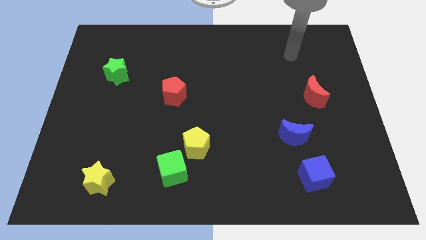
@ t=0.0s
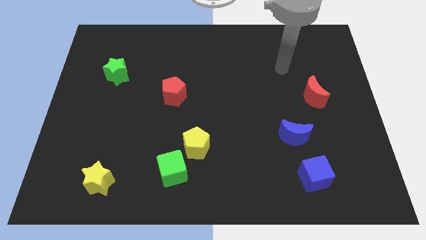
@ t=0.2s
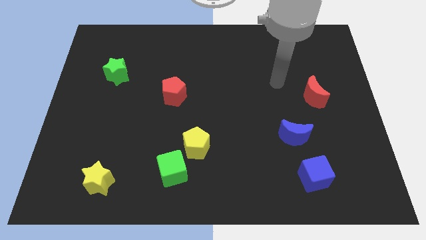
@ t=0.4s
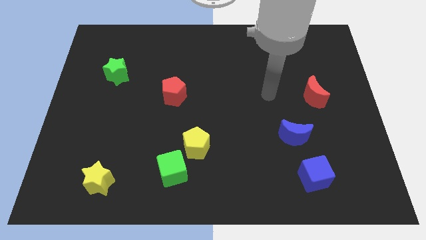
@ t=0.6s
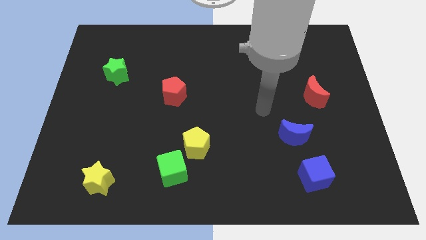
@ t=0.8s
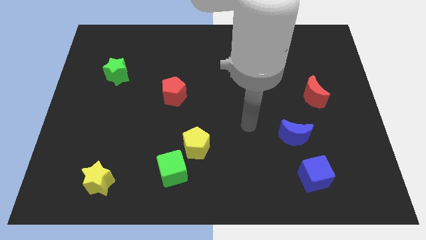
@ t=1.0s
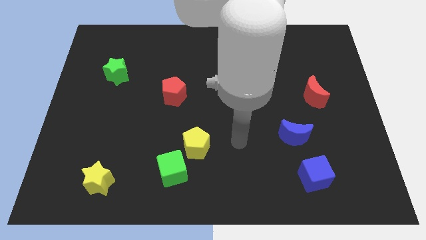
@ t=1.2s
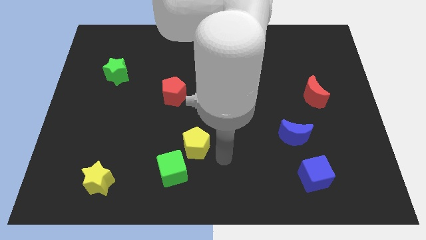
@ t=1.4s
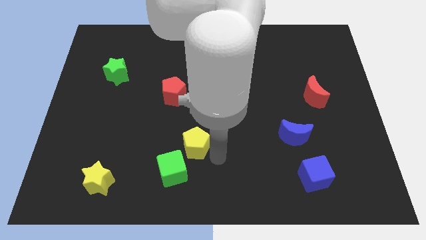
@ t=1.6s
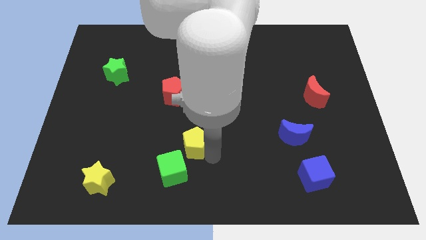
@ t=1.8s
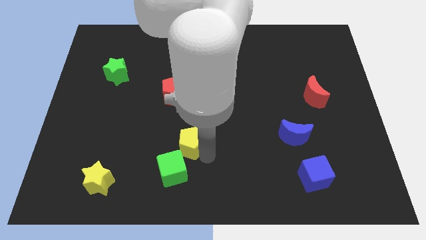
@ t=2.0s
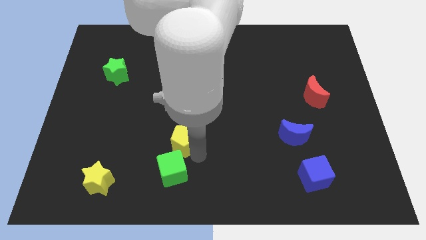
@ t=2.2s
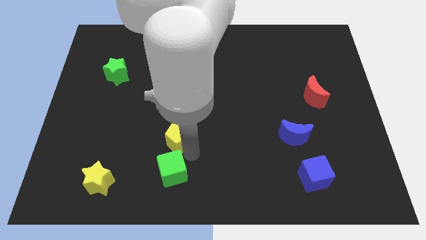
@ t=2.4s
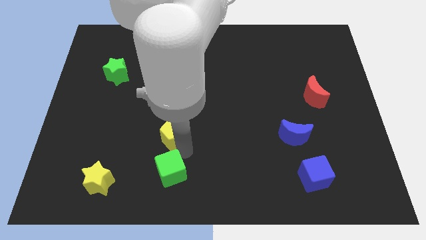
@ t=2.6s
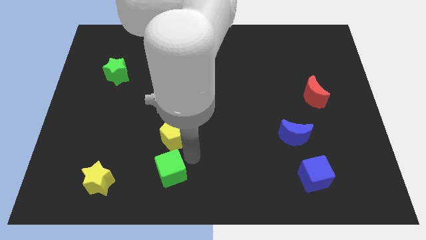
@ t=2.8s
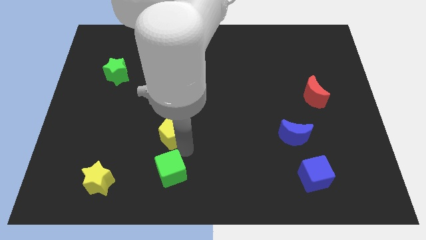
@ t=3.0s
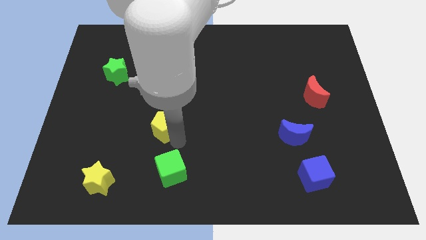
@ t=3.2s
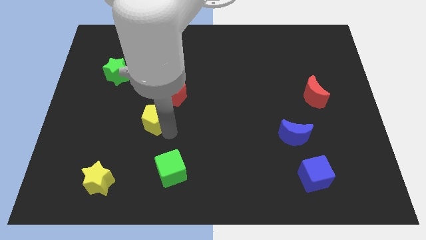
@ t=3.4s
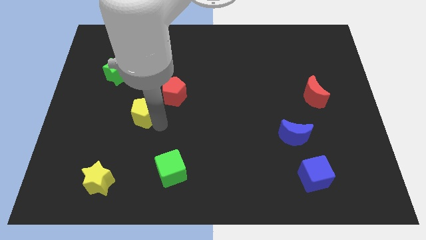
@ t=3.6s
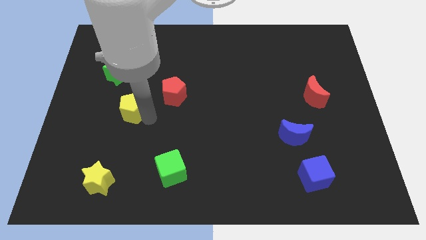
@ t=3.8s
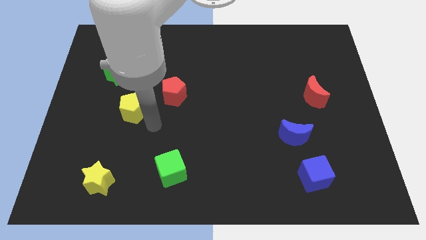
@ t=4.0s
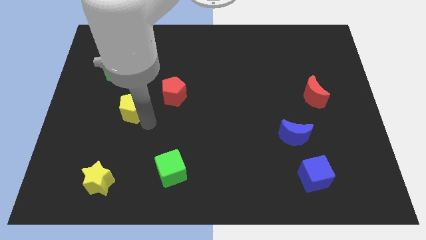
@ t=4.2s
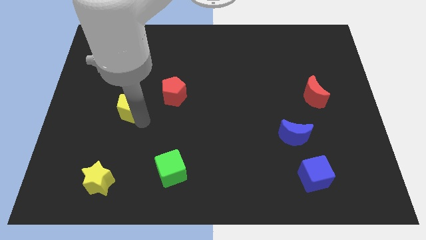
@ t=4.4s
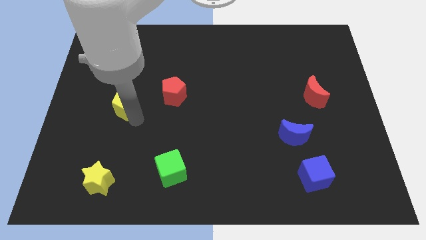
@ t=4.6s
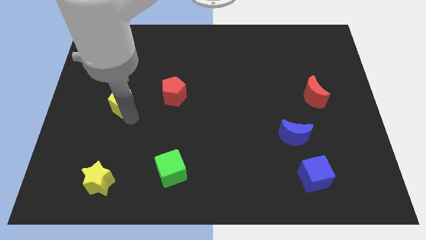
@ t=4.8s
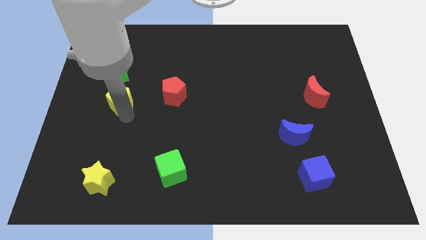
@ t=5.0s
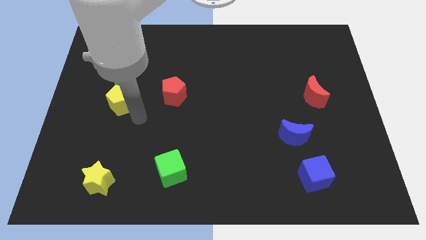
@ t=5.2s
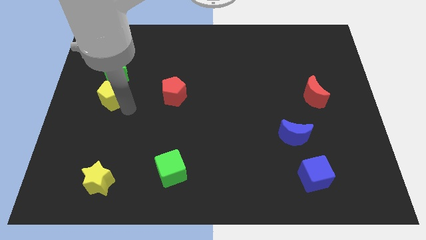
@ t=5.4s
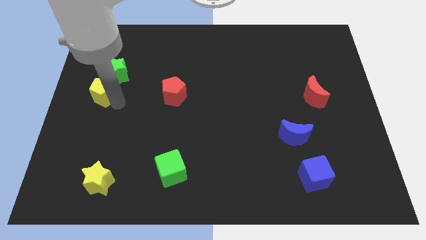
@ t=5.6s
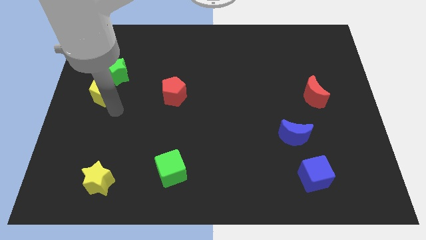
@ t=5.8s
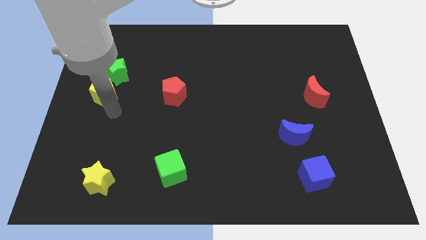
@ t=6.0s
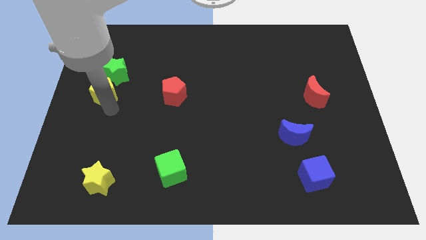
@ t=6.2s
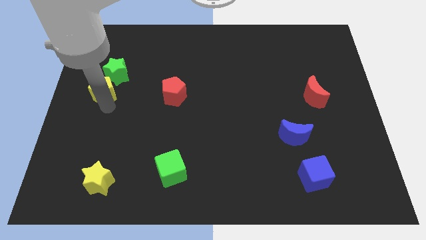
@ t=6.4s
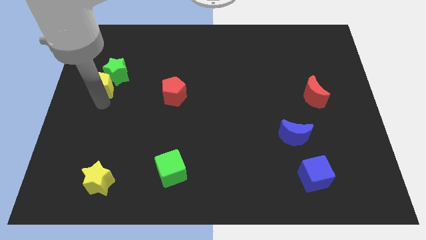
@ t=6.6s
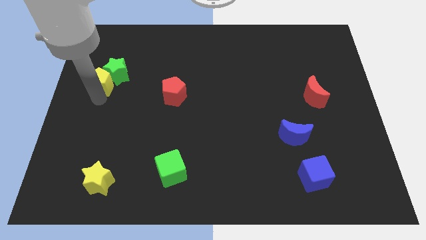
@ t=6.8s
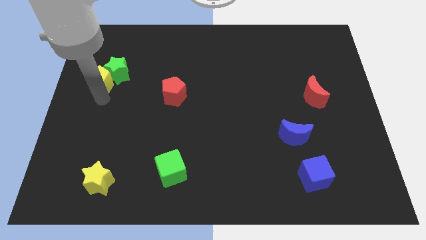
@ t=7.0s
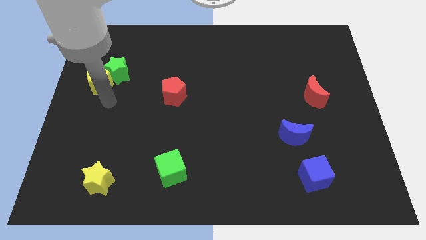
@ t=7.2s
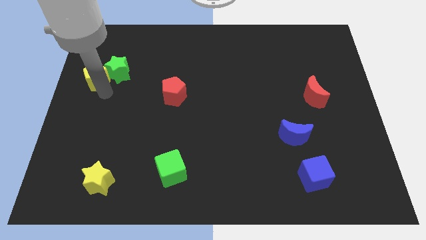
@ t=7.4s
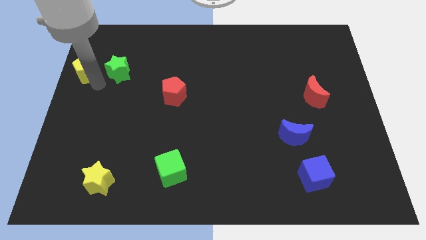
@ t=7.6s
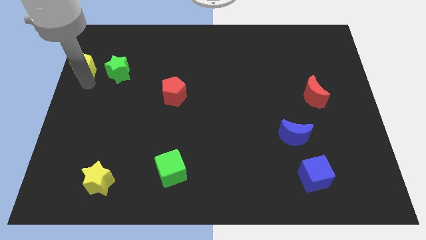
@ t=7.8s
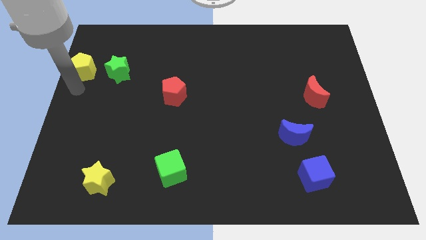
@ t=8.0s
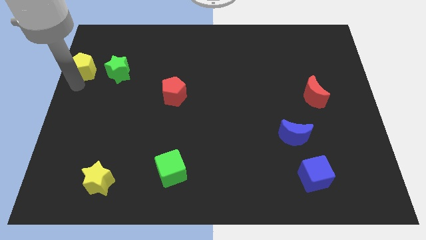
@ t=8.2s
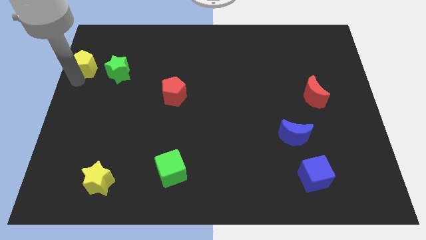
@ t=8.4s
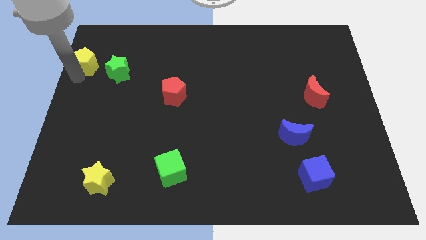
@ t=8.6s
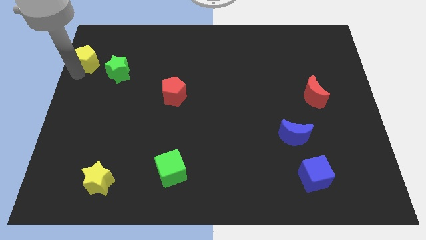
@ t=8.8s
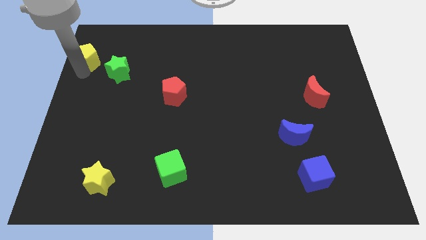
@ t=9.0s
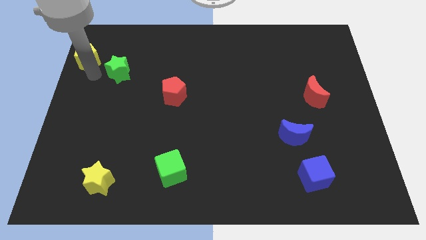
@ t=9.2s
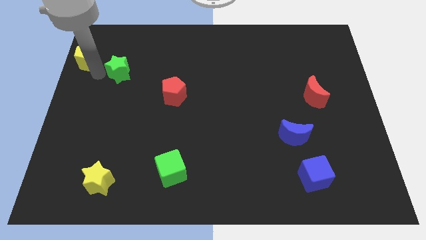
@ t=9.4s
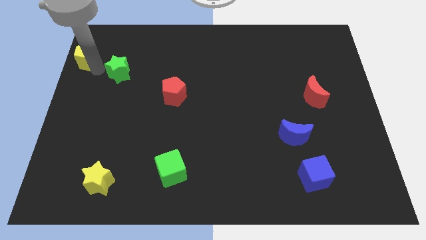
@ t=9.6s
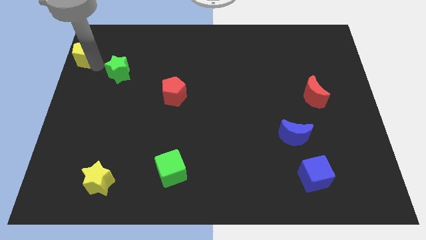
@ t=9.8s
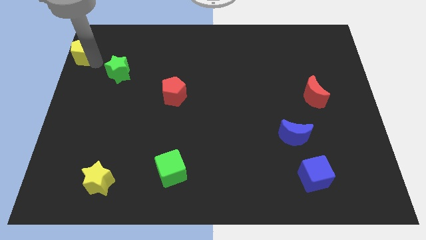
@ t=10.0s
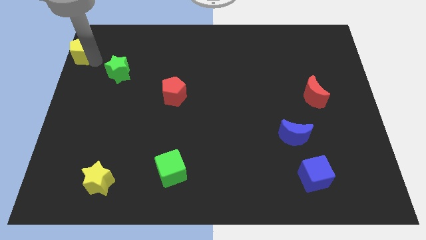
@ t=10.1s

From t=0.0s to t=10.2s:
put the yellow pentagon to the top left

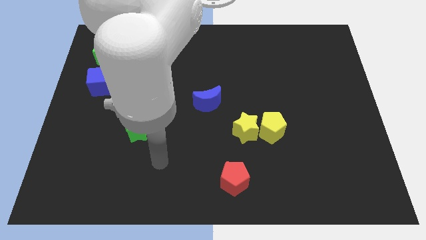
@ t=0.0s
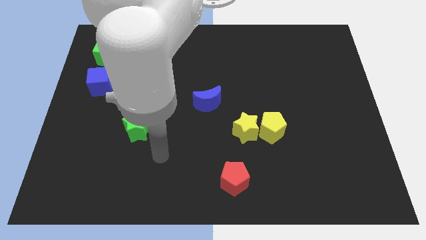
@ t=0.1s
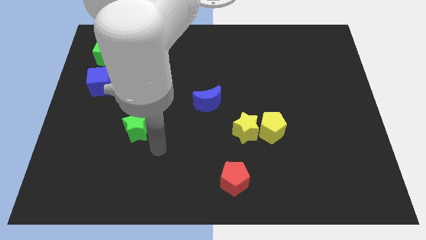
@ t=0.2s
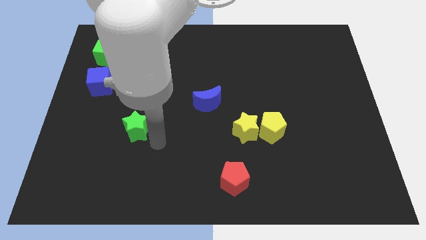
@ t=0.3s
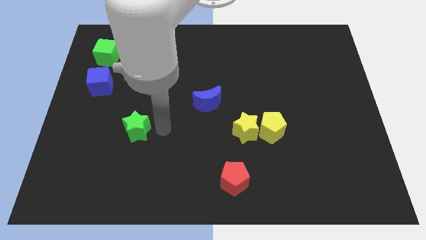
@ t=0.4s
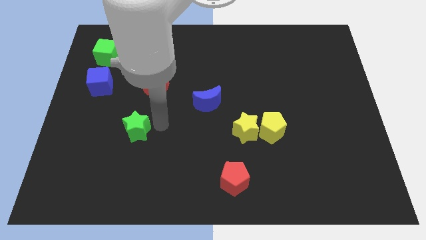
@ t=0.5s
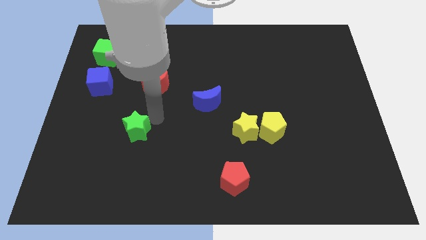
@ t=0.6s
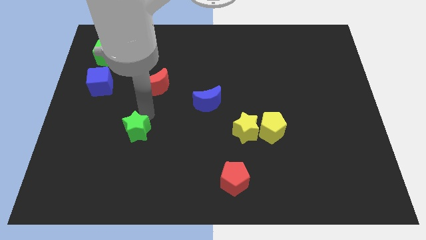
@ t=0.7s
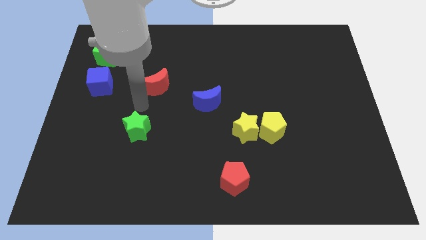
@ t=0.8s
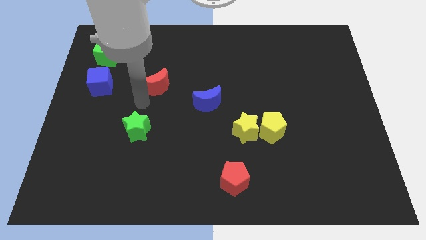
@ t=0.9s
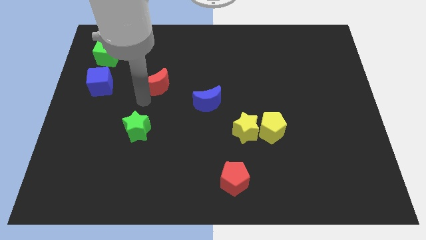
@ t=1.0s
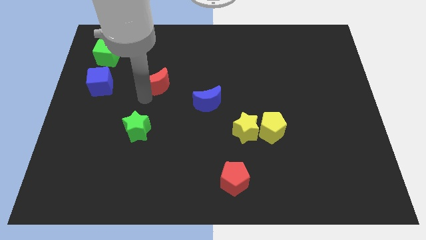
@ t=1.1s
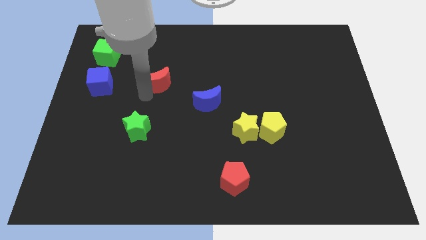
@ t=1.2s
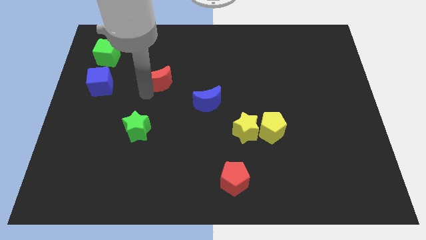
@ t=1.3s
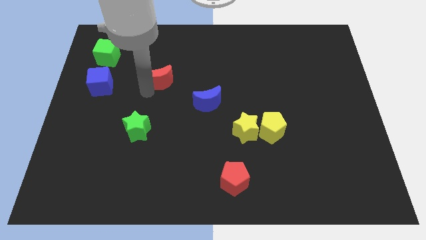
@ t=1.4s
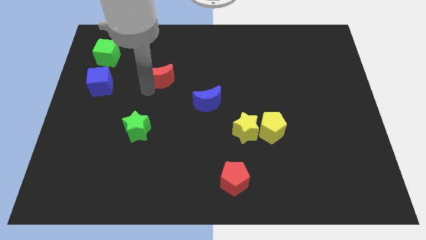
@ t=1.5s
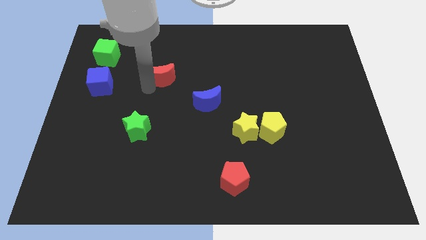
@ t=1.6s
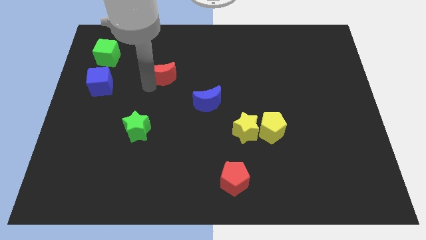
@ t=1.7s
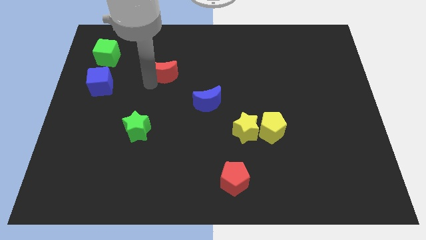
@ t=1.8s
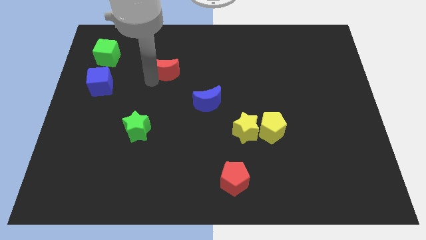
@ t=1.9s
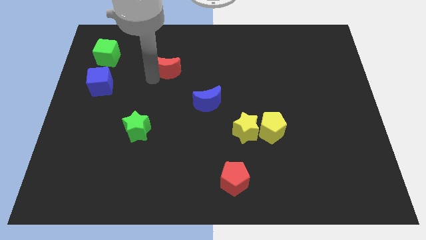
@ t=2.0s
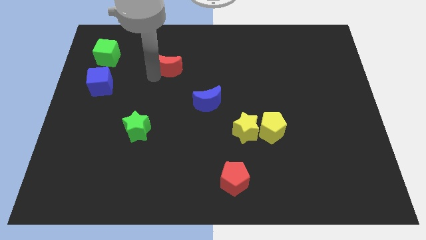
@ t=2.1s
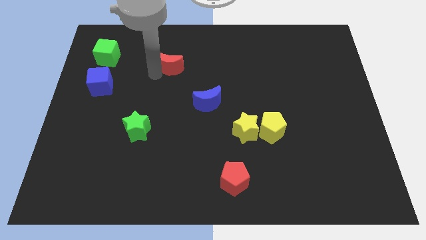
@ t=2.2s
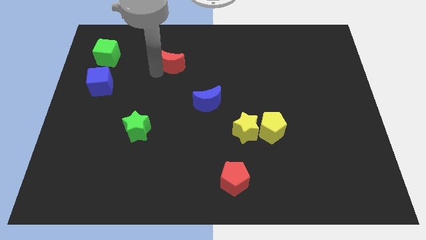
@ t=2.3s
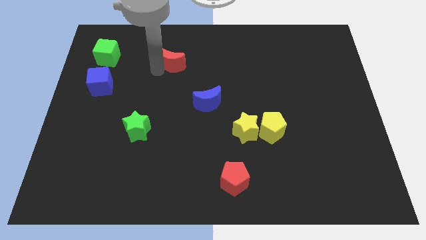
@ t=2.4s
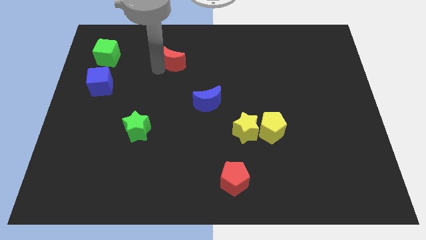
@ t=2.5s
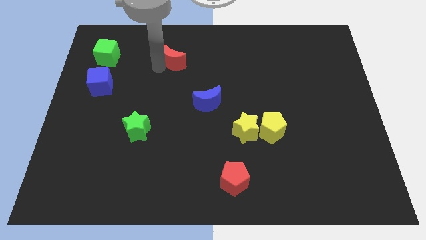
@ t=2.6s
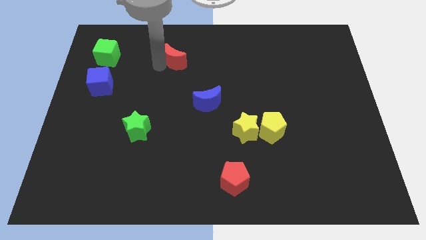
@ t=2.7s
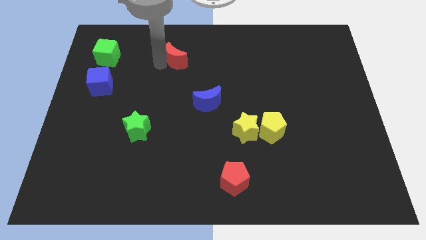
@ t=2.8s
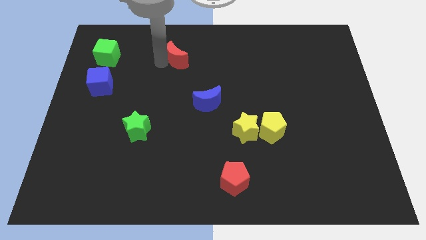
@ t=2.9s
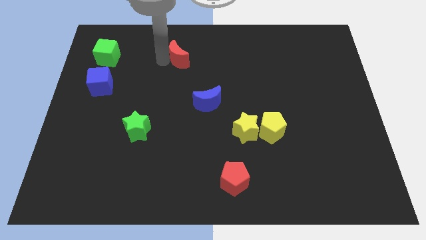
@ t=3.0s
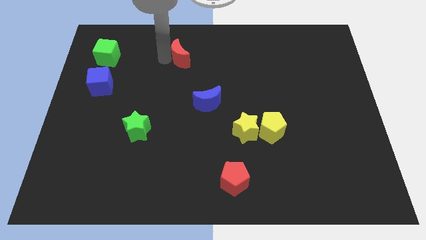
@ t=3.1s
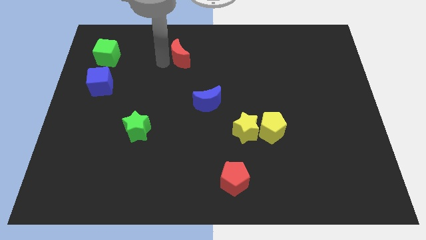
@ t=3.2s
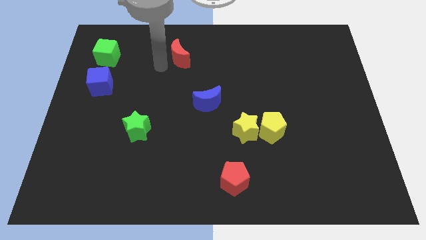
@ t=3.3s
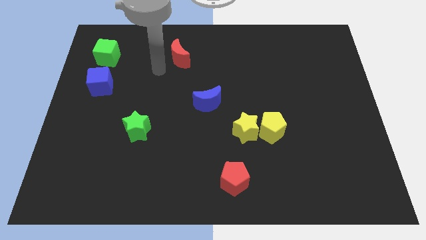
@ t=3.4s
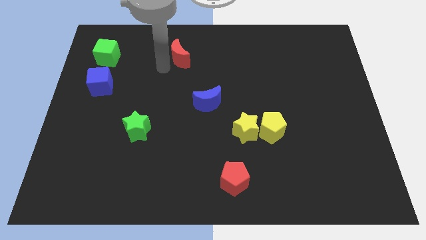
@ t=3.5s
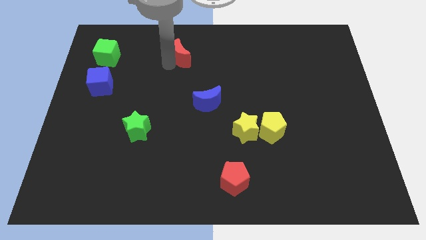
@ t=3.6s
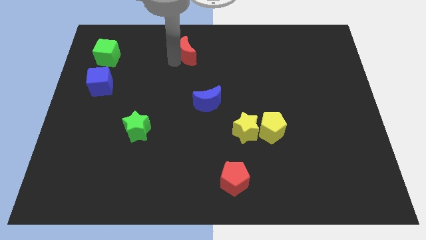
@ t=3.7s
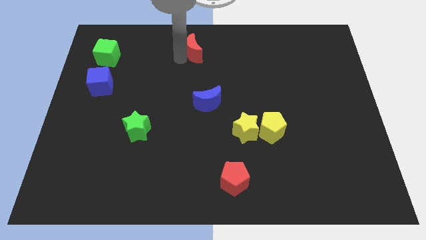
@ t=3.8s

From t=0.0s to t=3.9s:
slide the red moon to the top side
